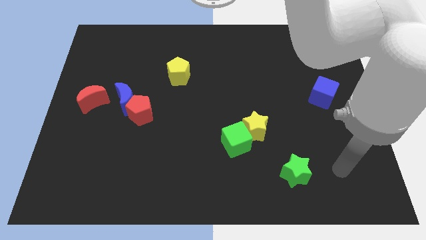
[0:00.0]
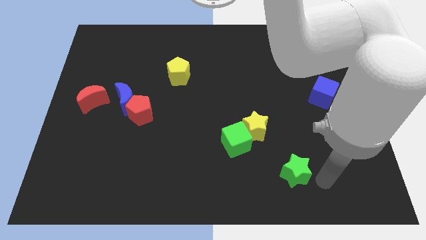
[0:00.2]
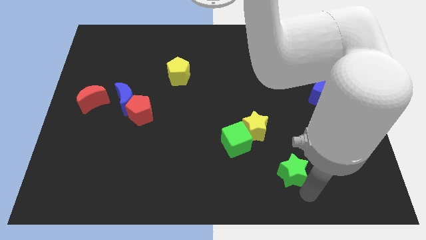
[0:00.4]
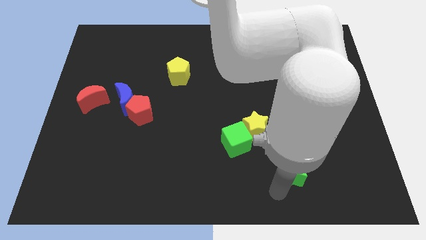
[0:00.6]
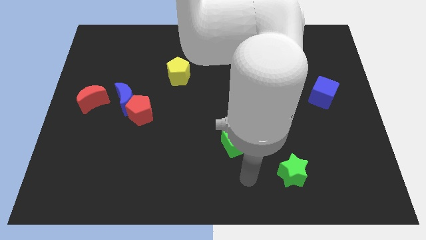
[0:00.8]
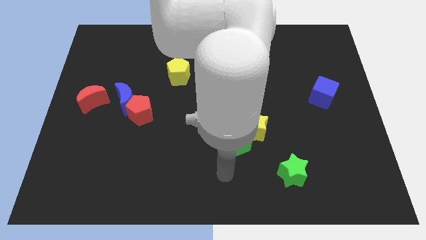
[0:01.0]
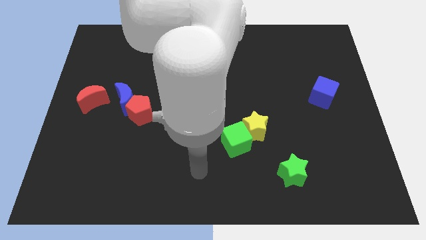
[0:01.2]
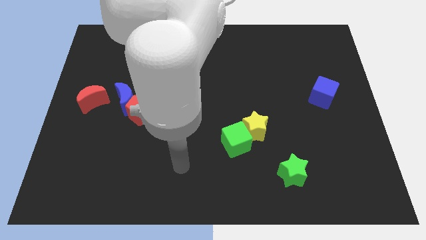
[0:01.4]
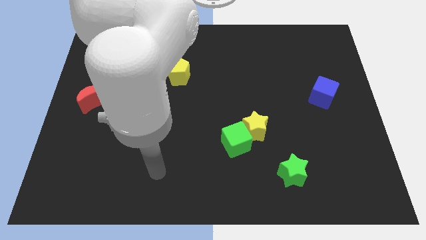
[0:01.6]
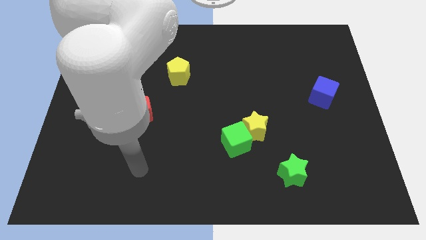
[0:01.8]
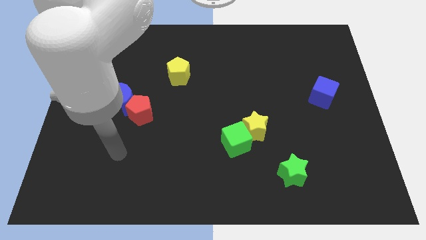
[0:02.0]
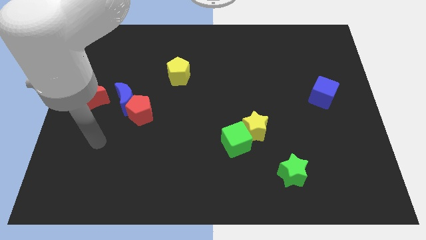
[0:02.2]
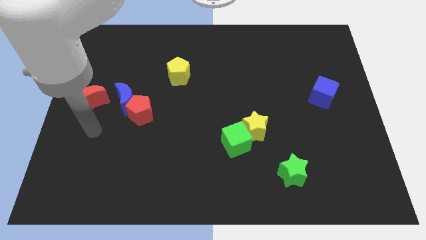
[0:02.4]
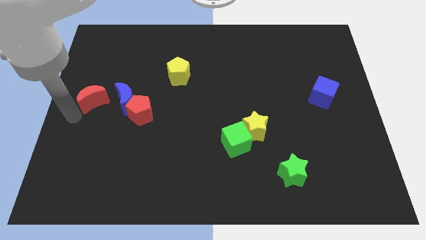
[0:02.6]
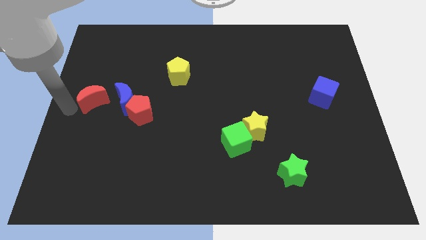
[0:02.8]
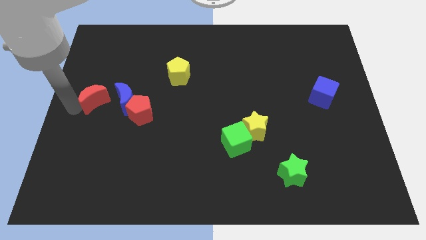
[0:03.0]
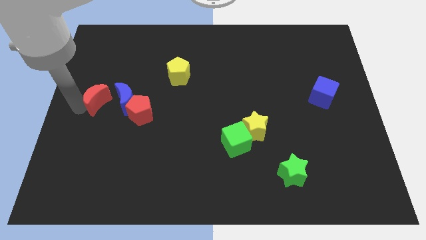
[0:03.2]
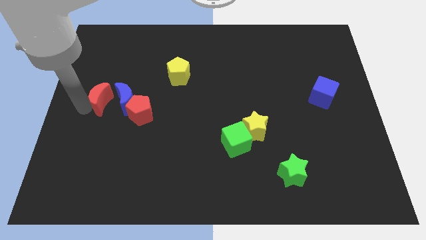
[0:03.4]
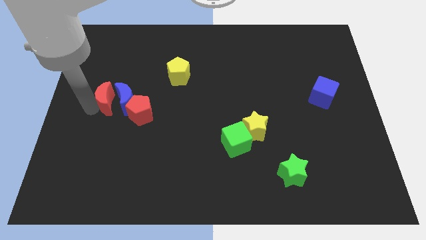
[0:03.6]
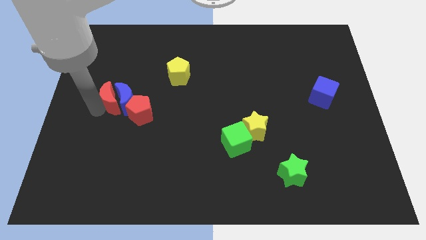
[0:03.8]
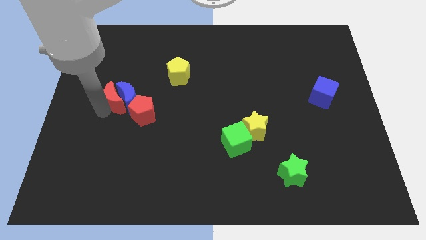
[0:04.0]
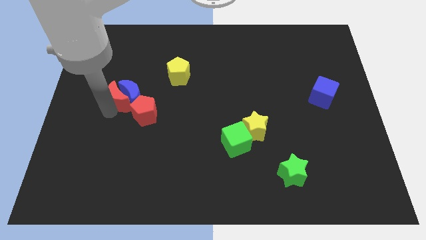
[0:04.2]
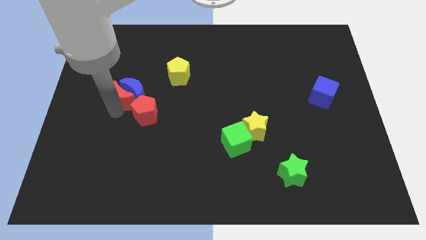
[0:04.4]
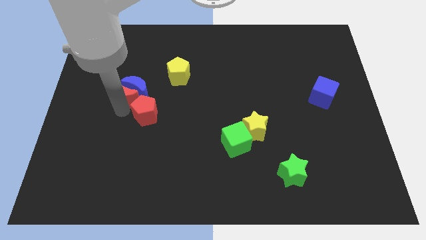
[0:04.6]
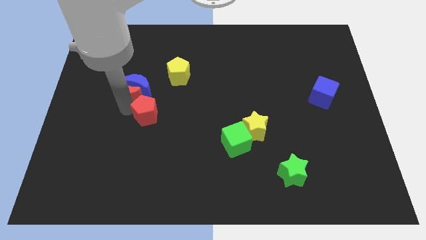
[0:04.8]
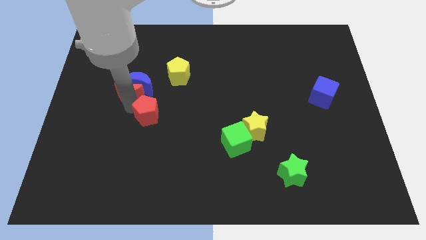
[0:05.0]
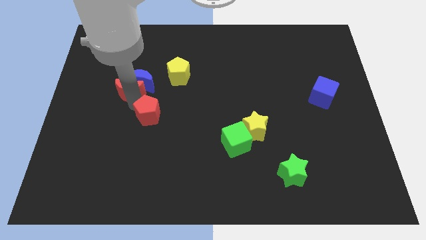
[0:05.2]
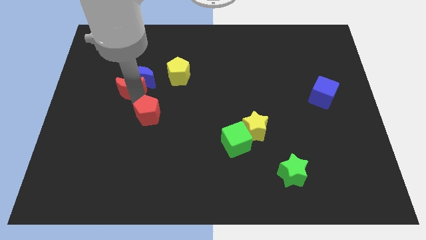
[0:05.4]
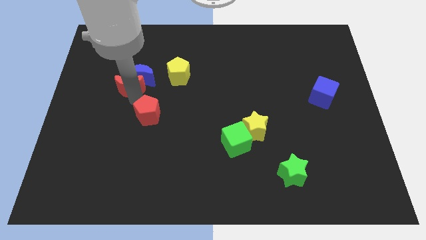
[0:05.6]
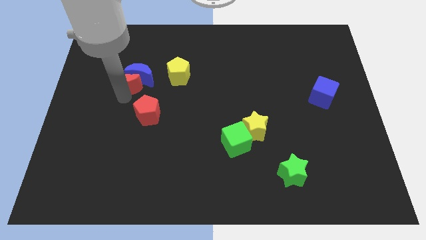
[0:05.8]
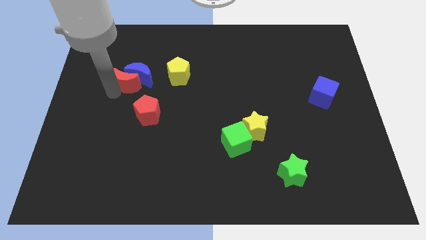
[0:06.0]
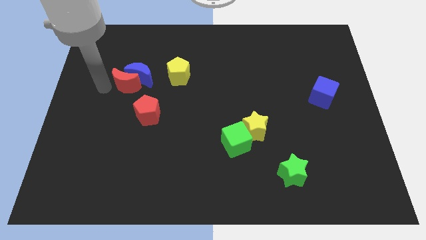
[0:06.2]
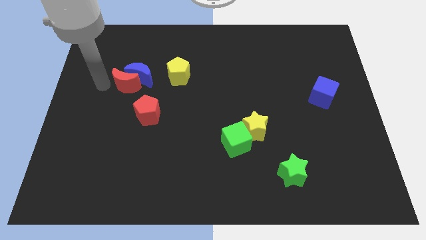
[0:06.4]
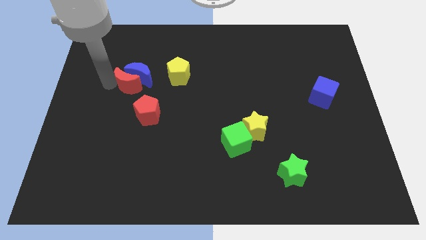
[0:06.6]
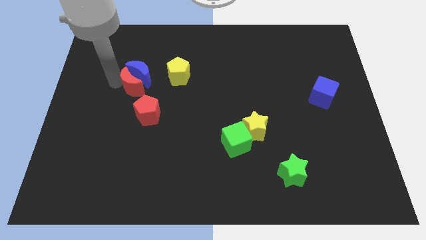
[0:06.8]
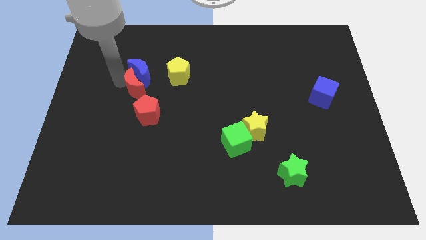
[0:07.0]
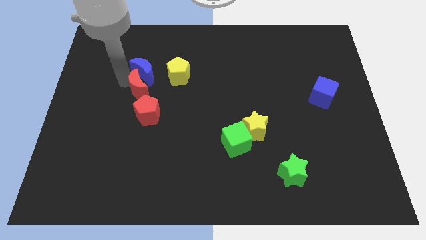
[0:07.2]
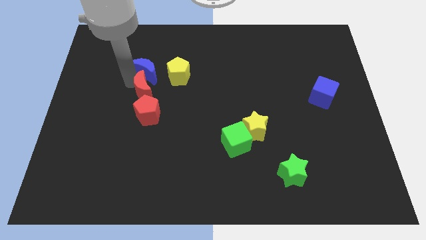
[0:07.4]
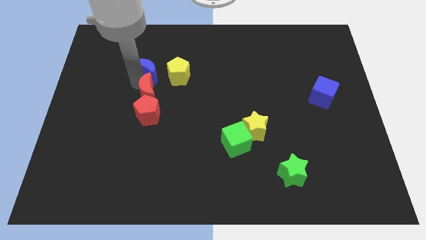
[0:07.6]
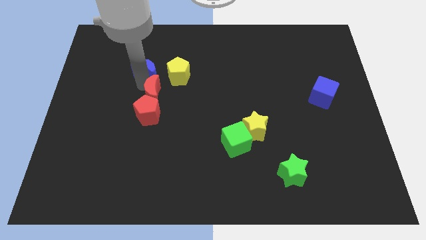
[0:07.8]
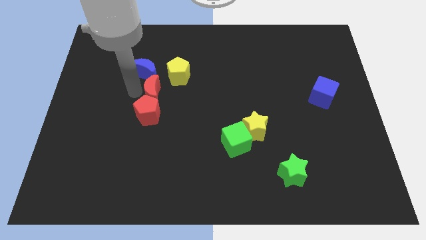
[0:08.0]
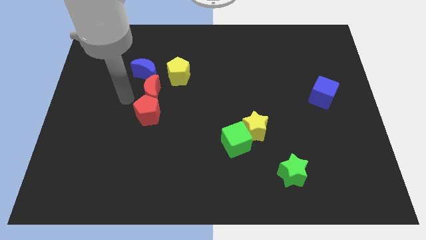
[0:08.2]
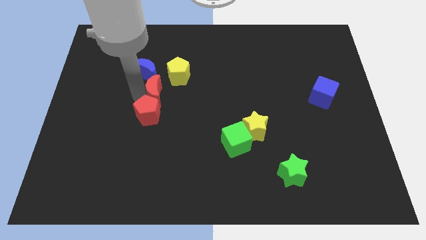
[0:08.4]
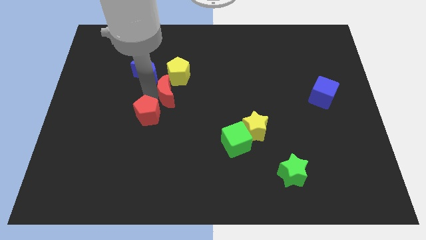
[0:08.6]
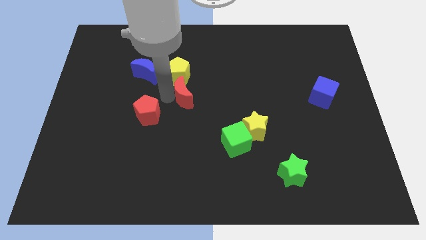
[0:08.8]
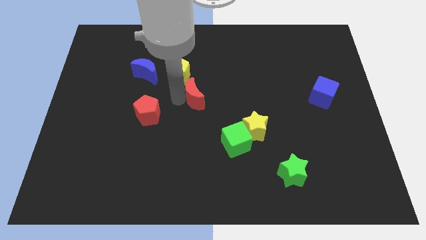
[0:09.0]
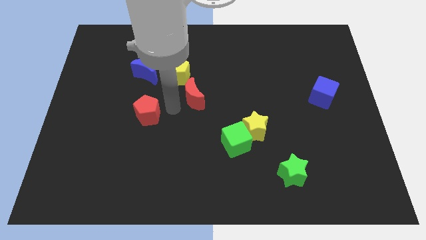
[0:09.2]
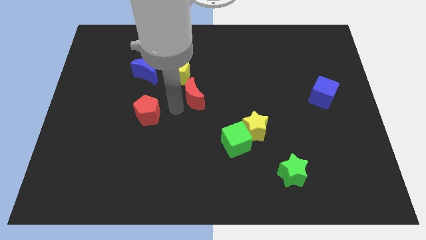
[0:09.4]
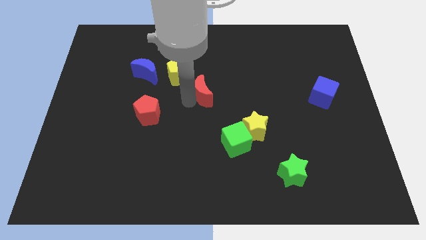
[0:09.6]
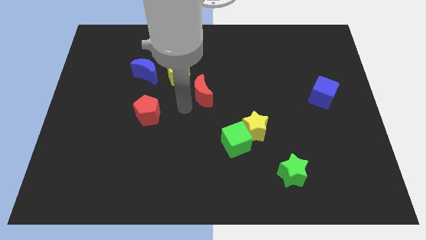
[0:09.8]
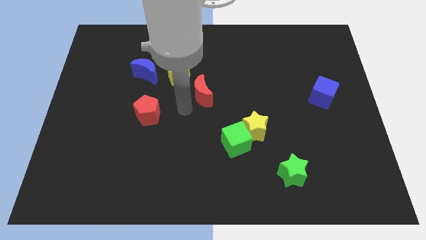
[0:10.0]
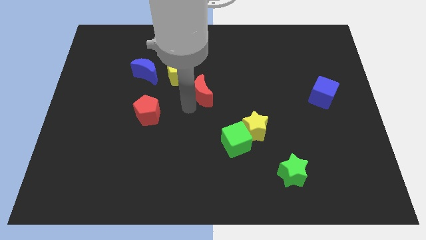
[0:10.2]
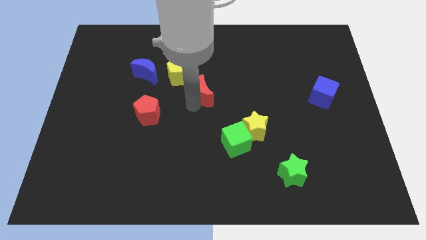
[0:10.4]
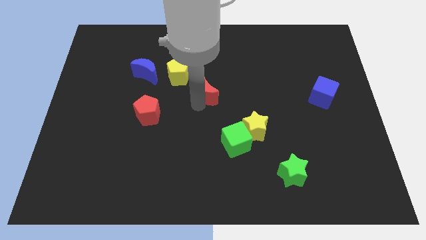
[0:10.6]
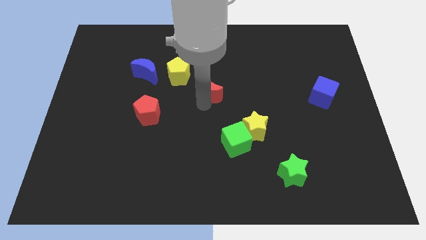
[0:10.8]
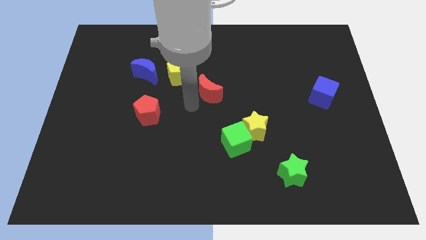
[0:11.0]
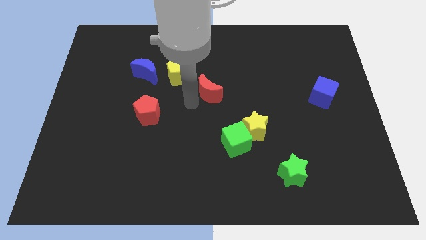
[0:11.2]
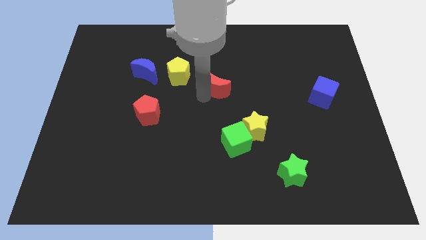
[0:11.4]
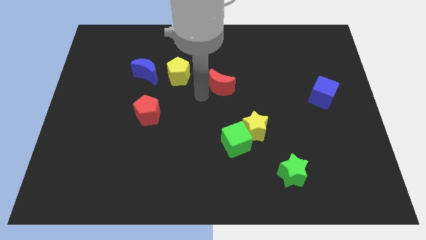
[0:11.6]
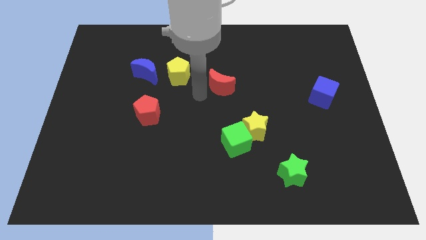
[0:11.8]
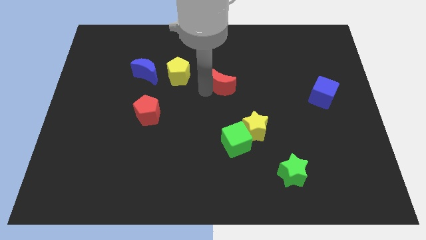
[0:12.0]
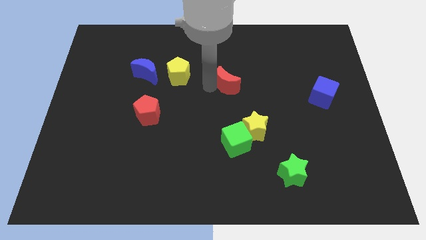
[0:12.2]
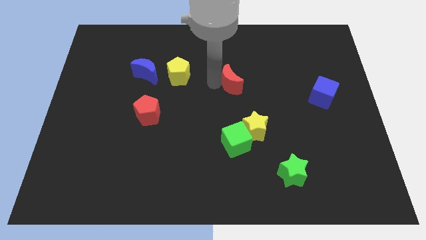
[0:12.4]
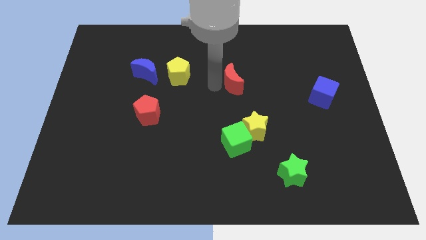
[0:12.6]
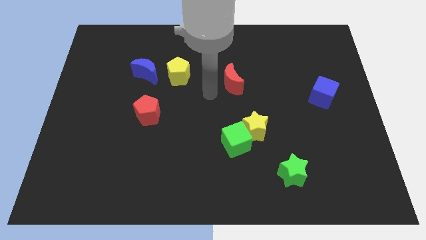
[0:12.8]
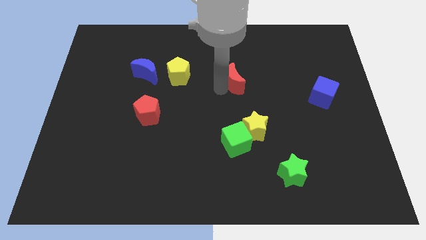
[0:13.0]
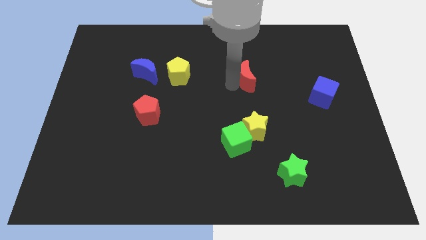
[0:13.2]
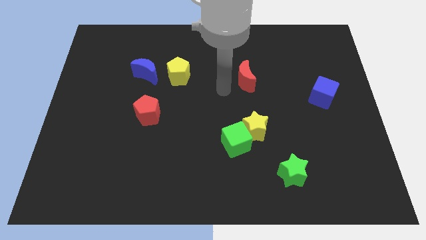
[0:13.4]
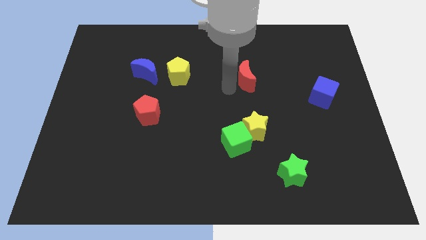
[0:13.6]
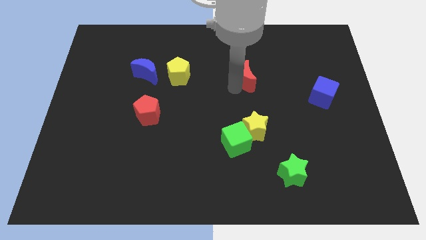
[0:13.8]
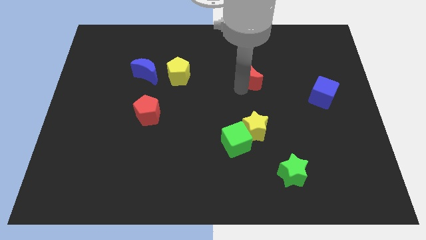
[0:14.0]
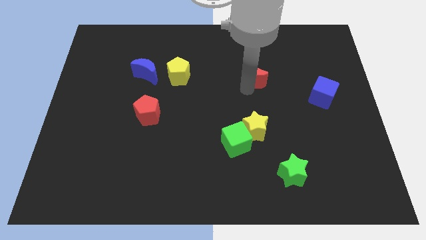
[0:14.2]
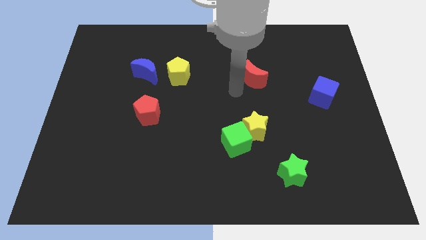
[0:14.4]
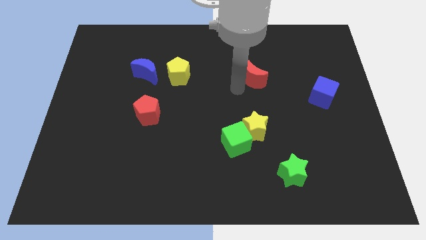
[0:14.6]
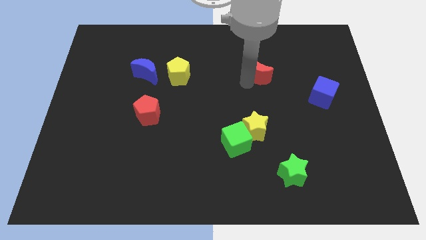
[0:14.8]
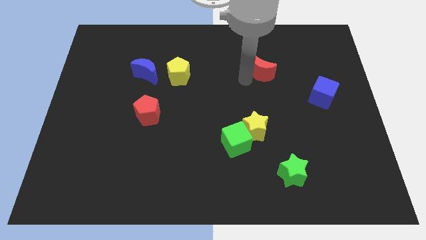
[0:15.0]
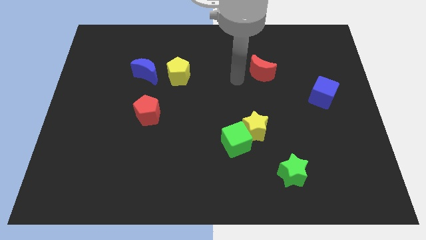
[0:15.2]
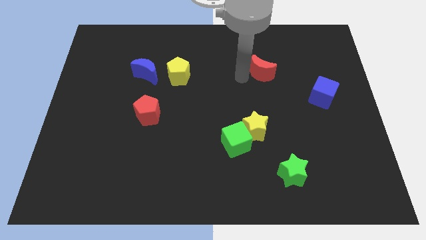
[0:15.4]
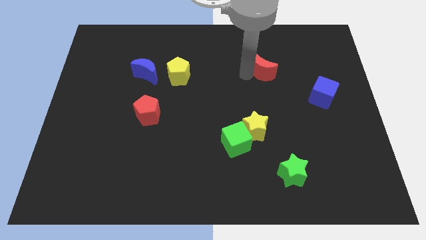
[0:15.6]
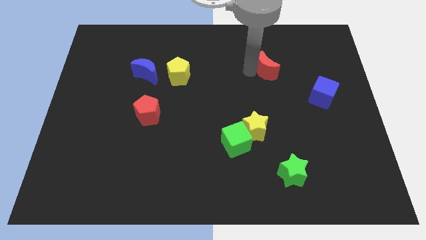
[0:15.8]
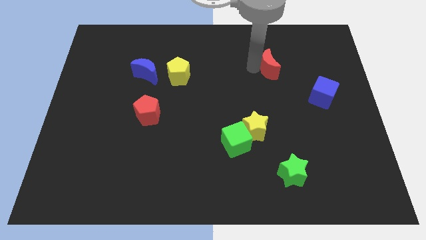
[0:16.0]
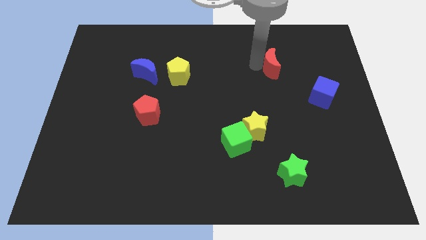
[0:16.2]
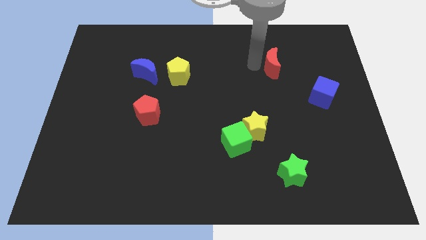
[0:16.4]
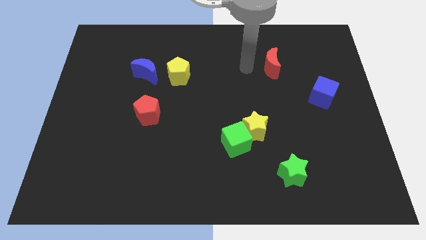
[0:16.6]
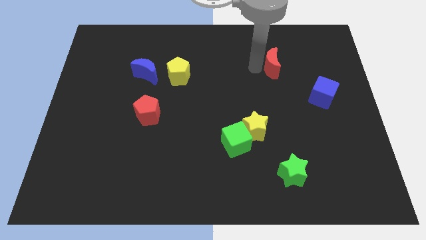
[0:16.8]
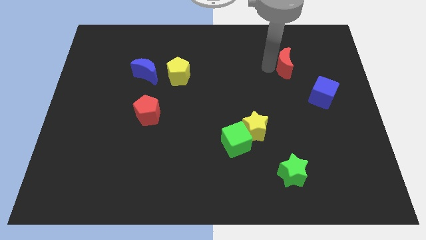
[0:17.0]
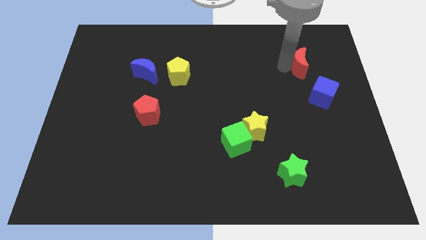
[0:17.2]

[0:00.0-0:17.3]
put the red moon above the blue cube
